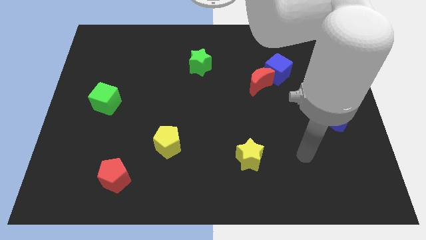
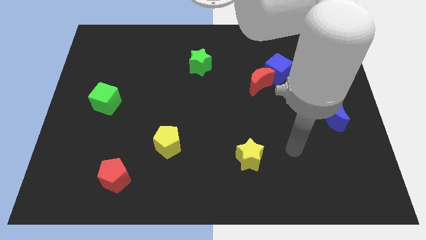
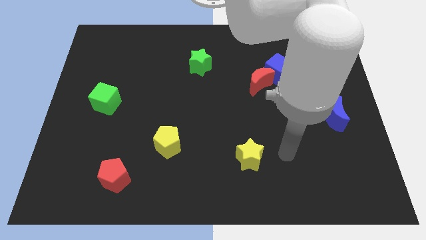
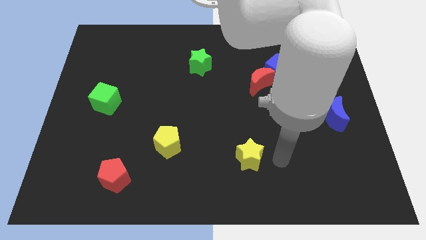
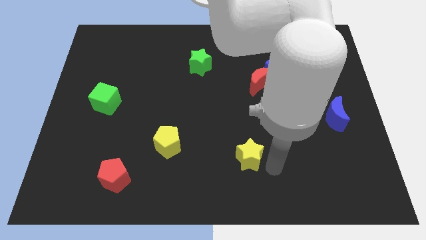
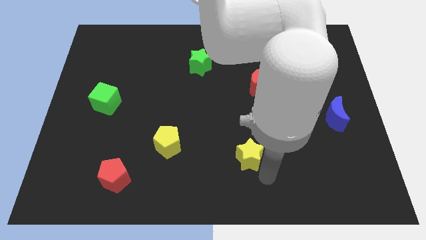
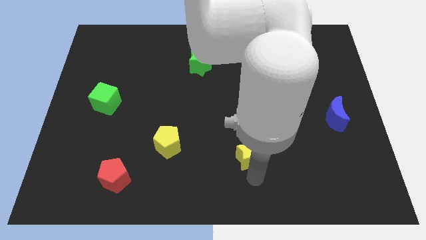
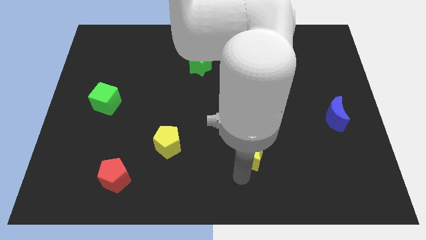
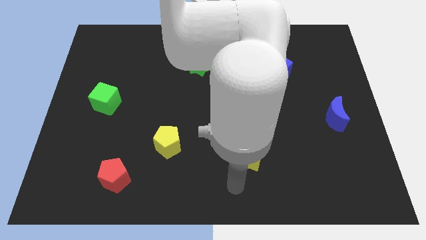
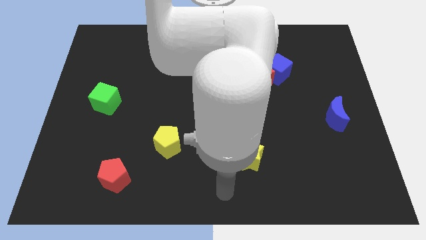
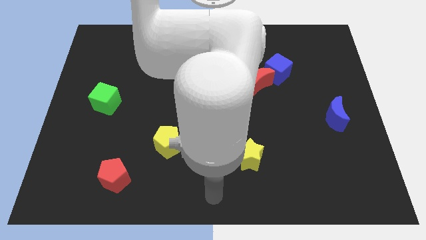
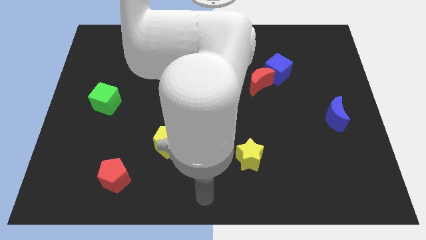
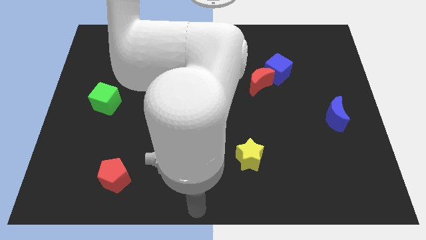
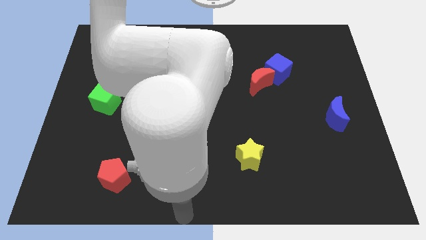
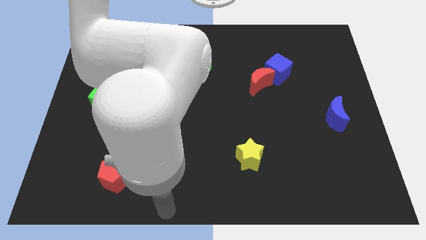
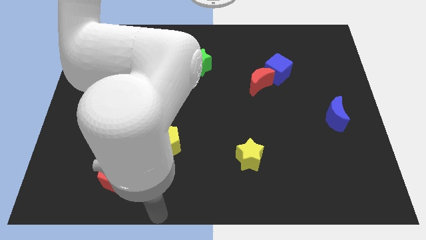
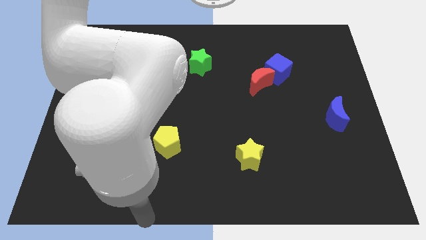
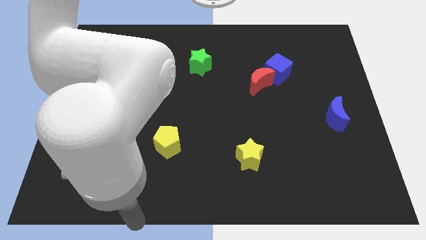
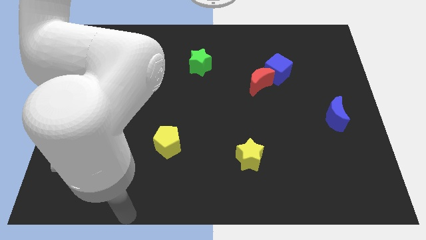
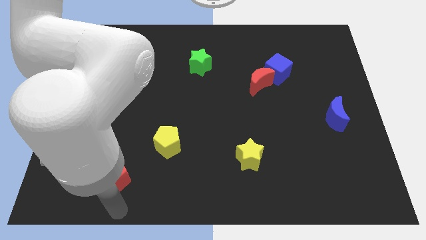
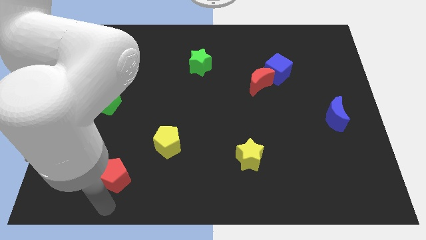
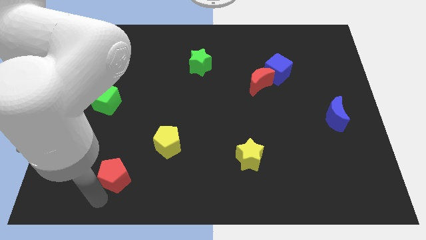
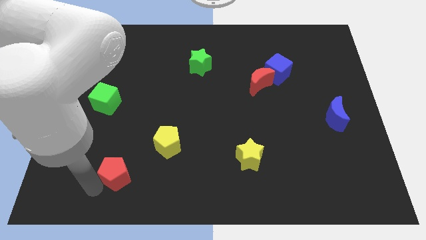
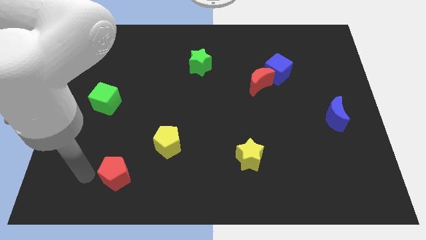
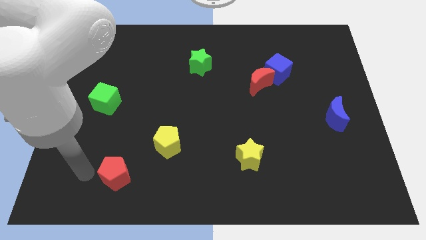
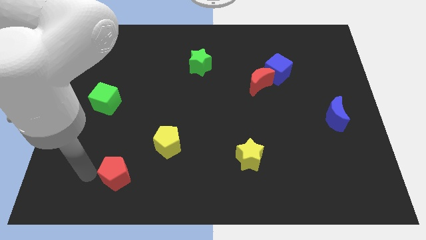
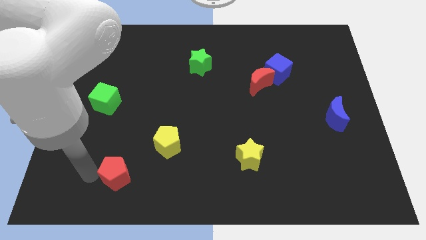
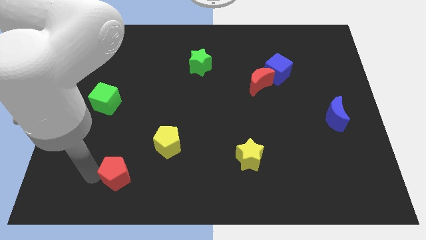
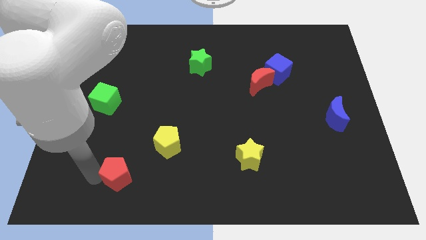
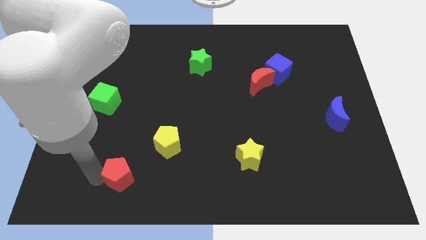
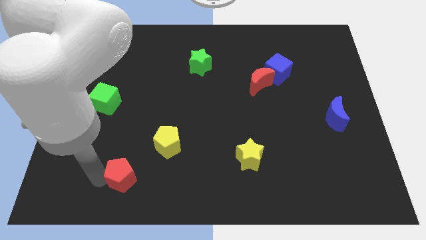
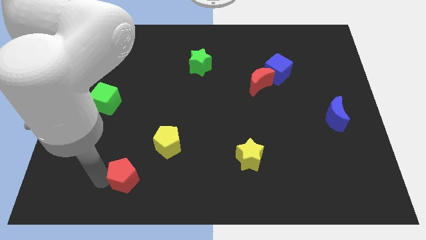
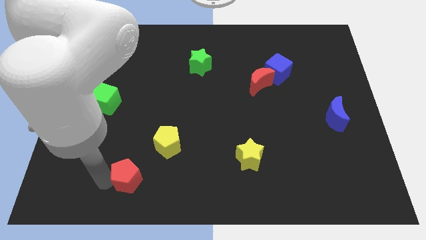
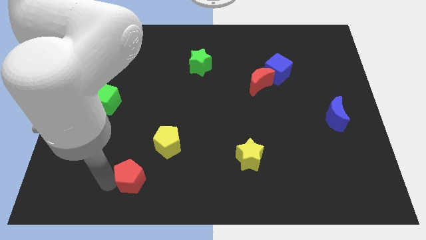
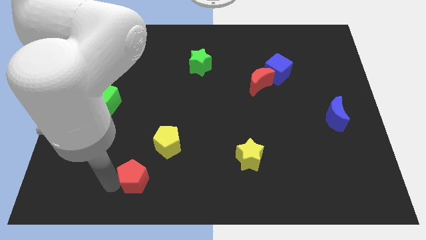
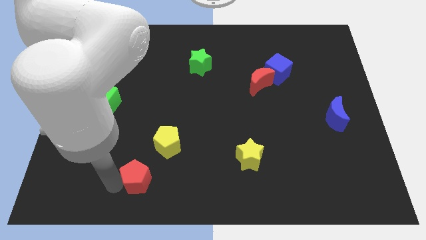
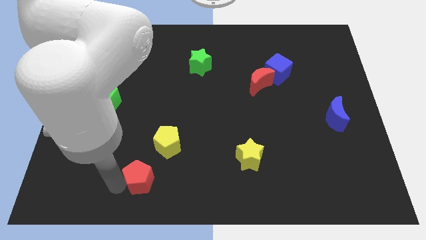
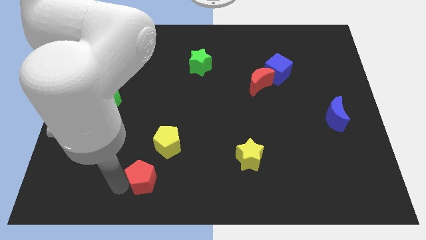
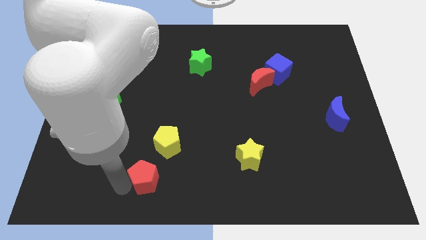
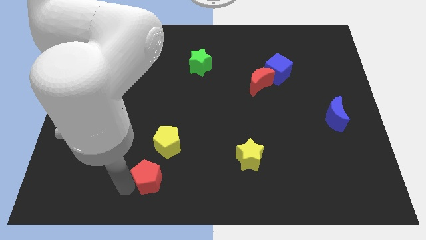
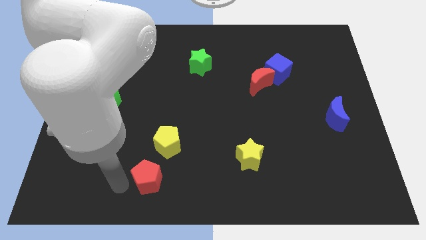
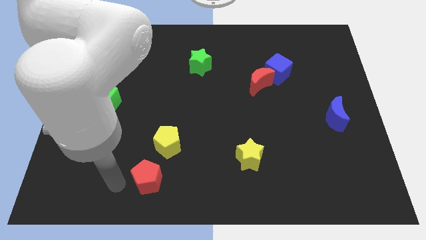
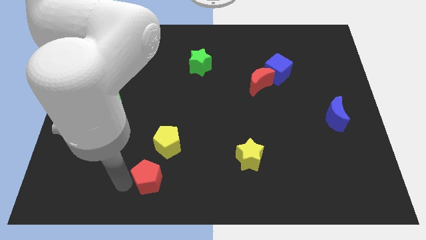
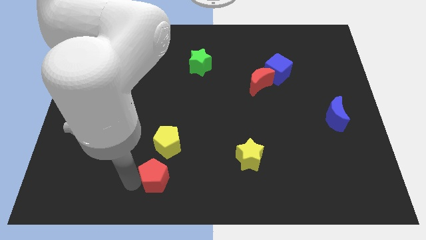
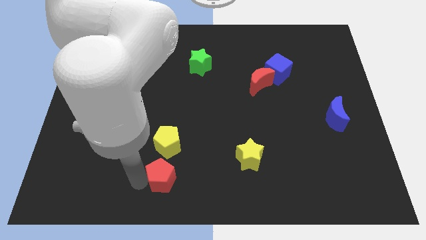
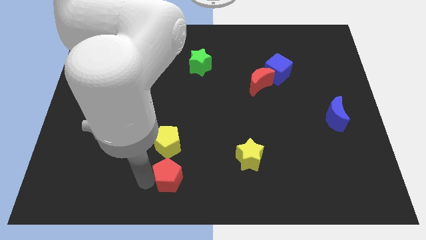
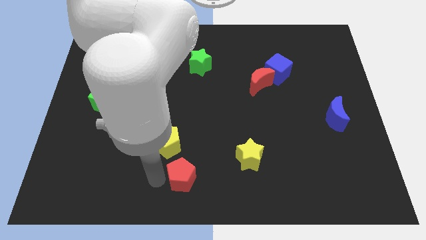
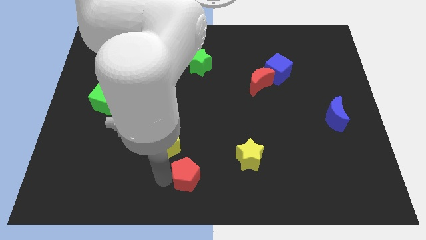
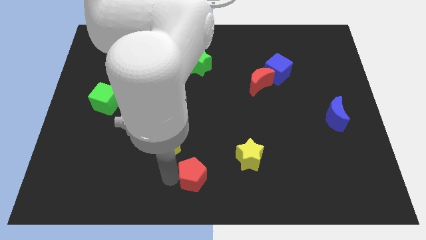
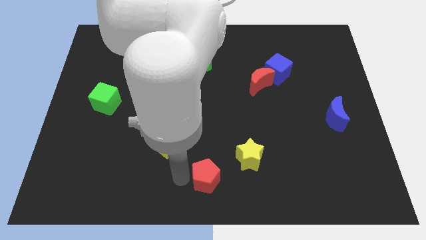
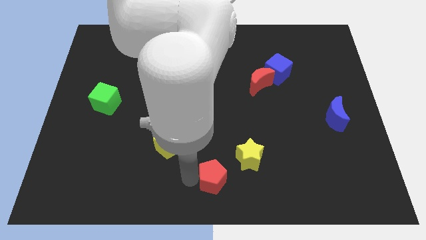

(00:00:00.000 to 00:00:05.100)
move the red pentagon right

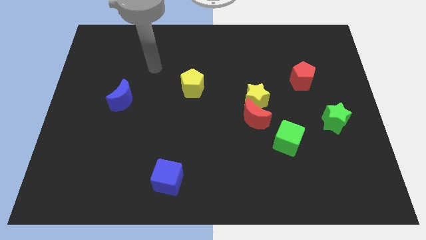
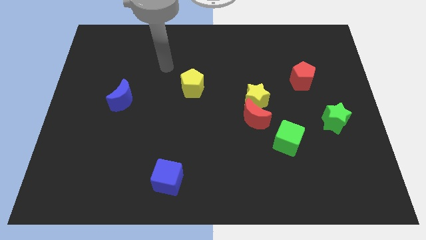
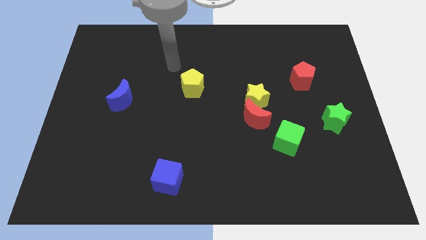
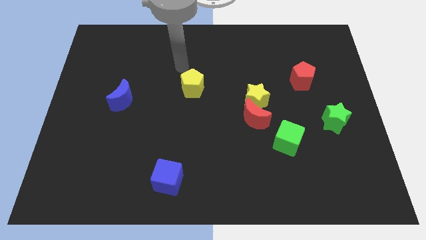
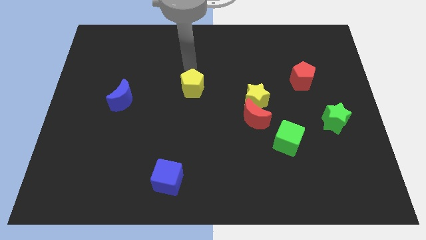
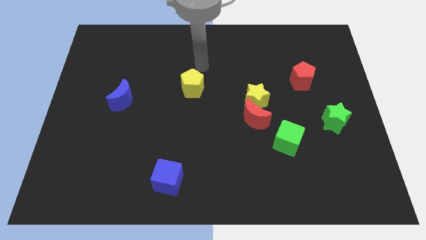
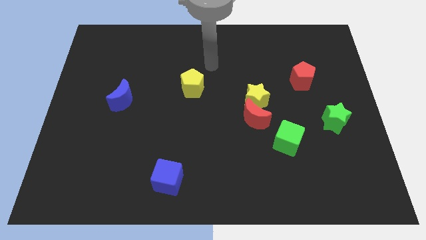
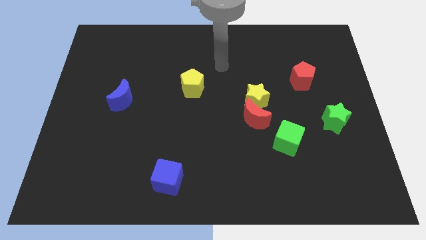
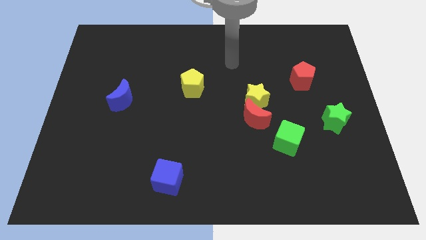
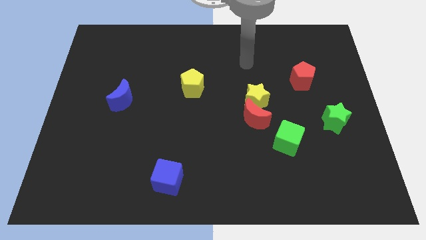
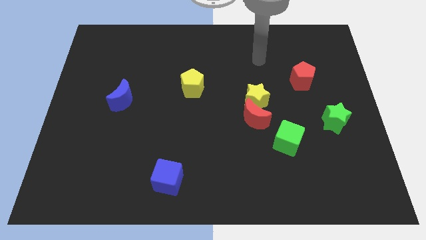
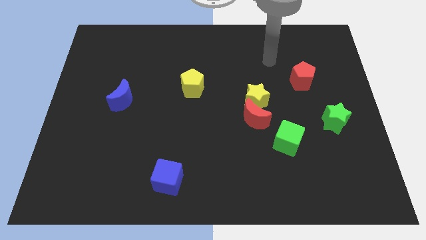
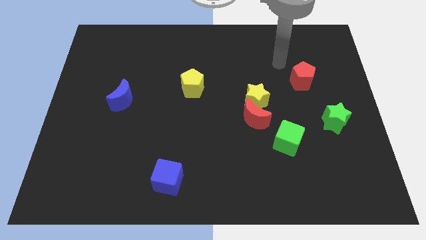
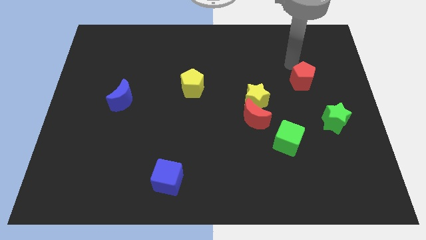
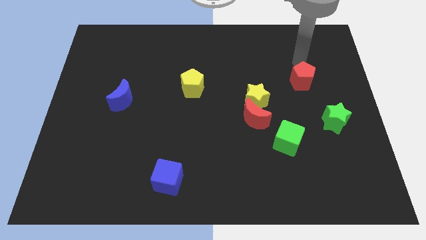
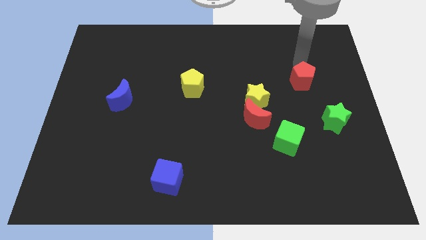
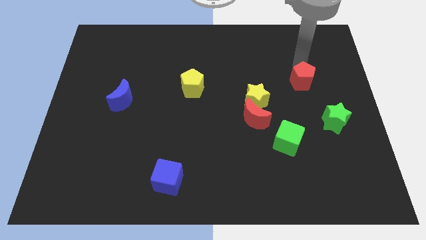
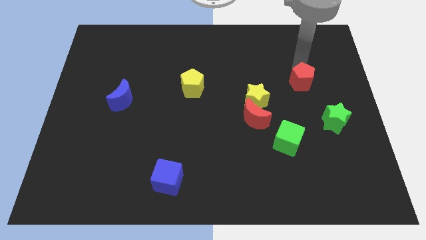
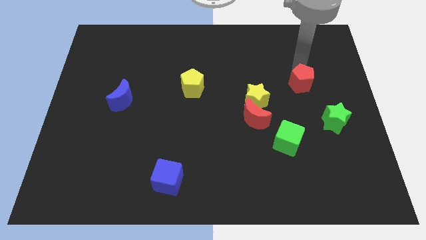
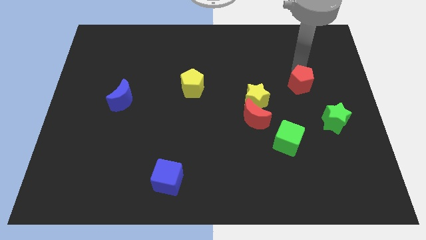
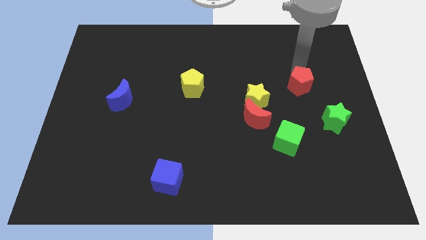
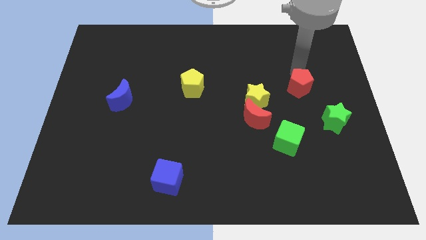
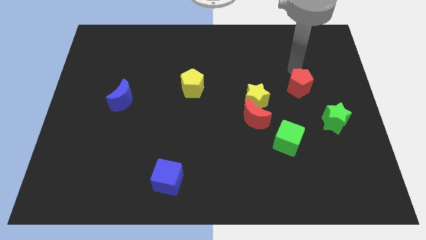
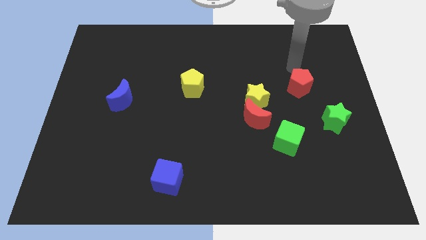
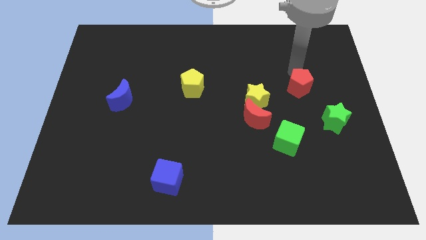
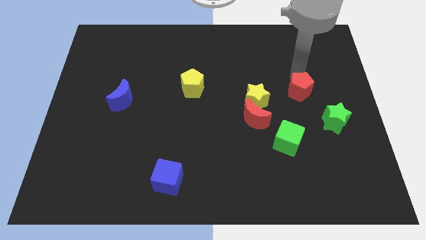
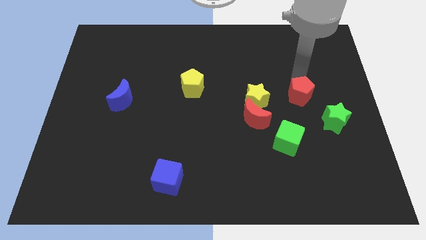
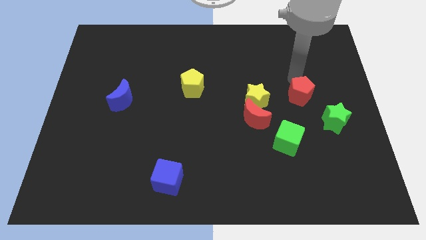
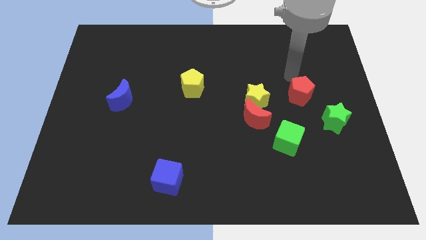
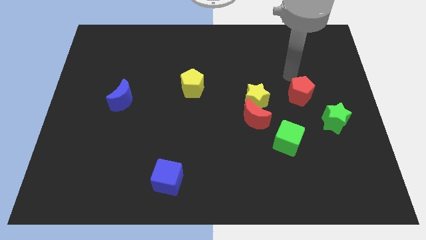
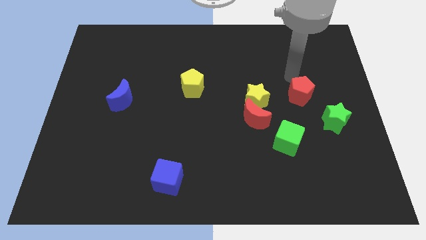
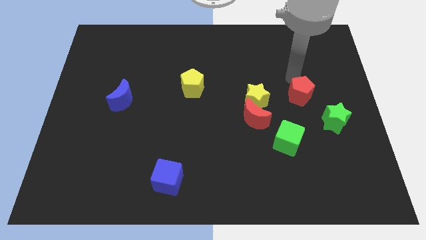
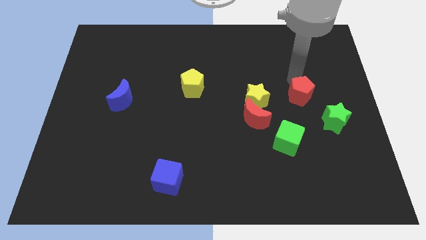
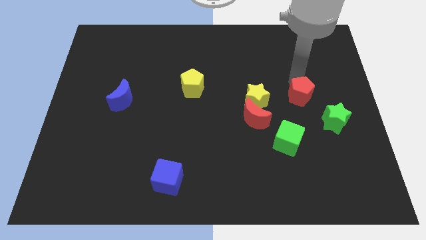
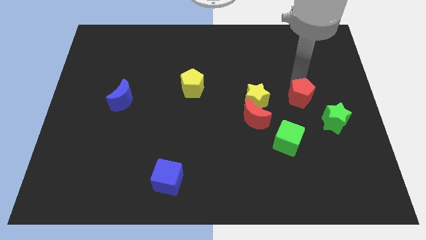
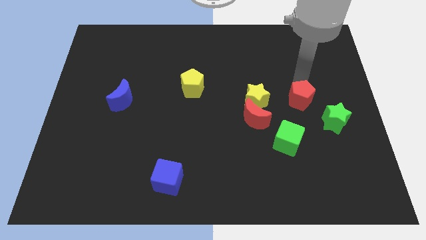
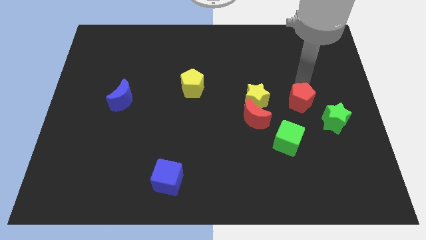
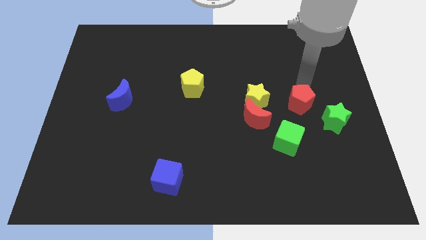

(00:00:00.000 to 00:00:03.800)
slide the red pentagon downwards a little
